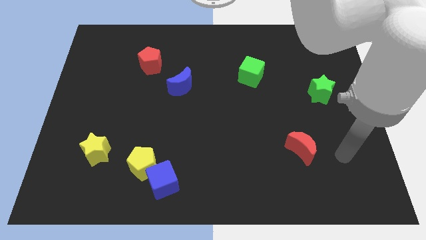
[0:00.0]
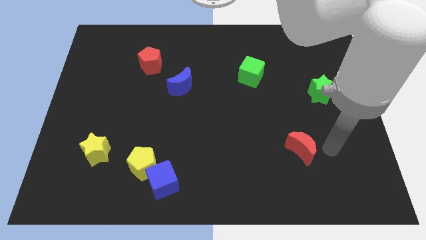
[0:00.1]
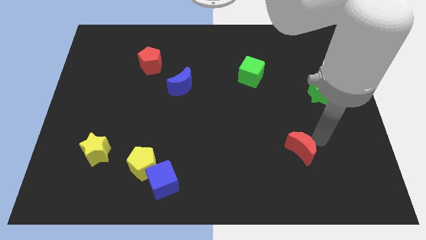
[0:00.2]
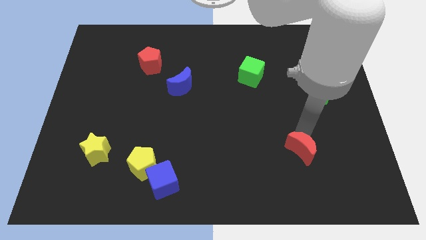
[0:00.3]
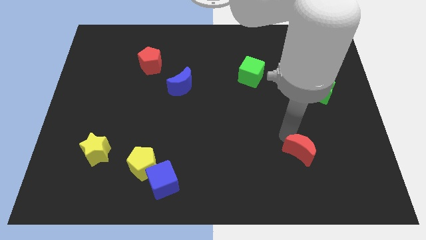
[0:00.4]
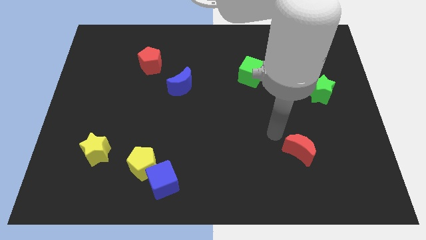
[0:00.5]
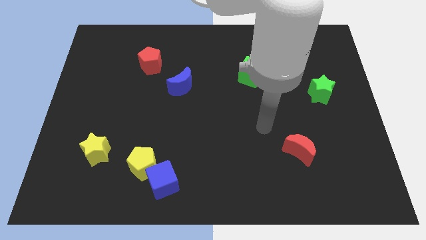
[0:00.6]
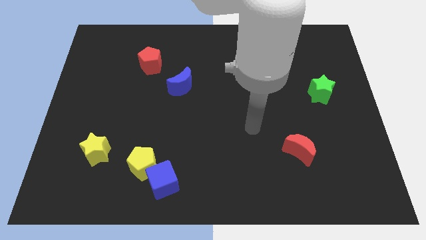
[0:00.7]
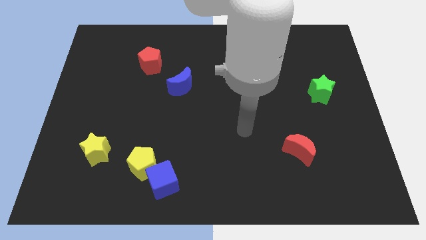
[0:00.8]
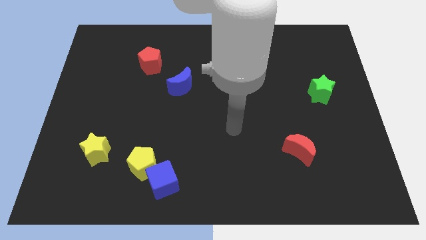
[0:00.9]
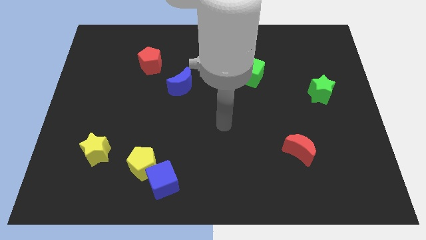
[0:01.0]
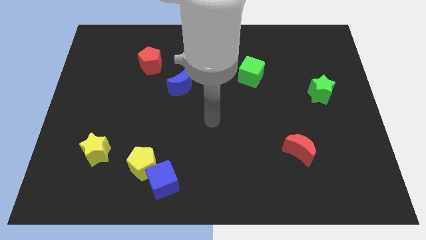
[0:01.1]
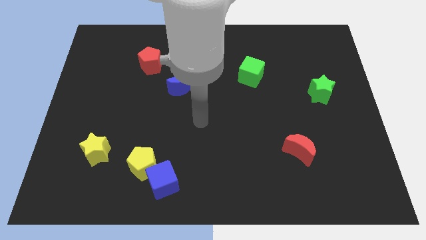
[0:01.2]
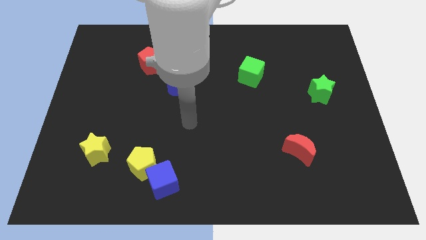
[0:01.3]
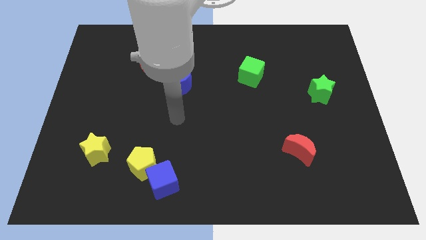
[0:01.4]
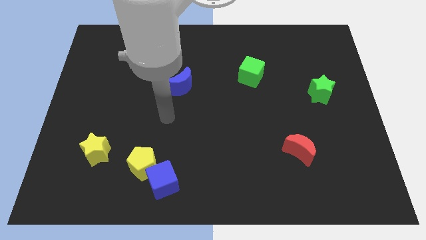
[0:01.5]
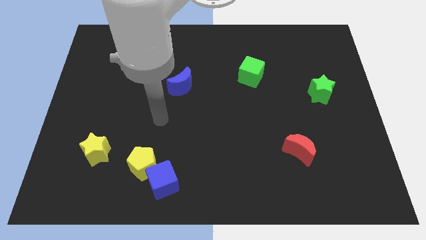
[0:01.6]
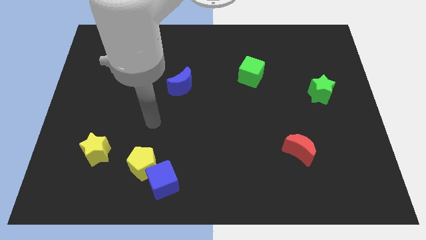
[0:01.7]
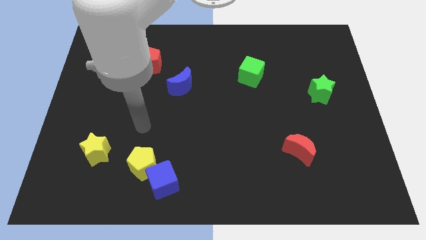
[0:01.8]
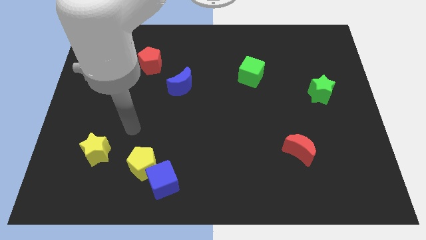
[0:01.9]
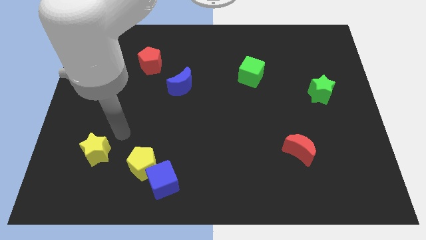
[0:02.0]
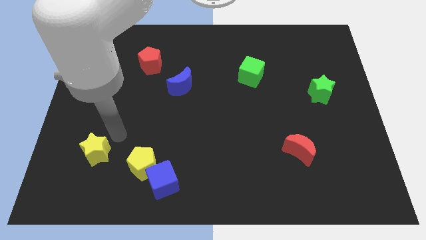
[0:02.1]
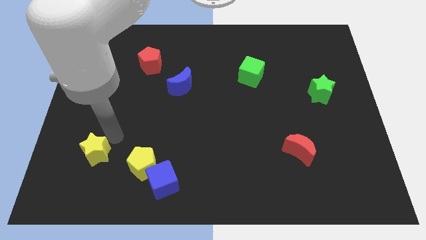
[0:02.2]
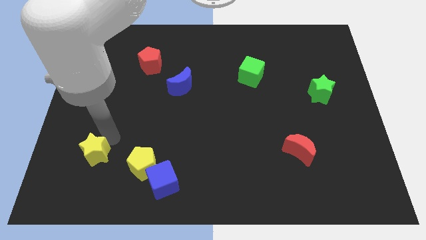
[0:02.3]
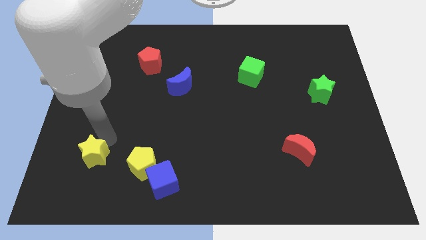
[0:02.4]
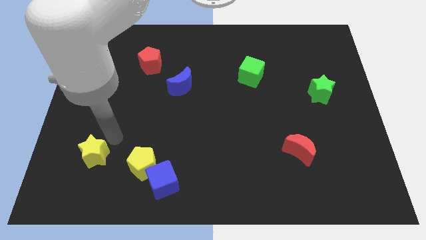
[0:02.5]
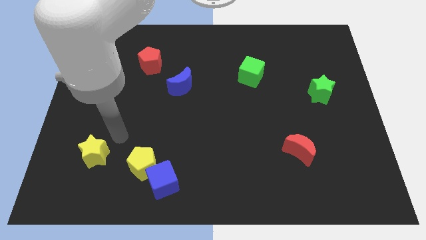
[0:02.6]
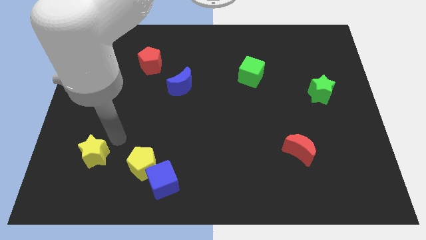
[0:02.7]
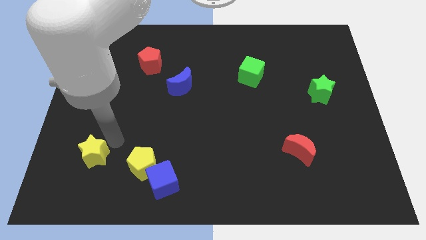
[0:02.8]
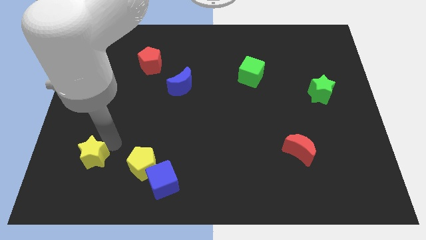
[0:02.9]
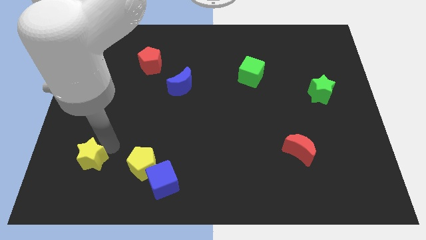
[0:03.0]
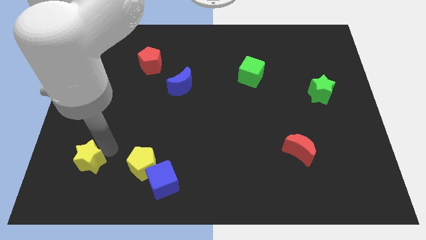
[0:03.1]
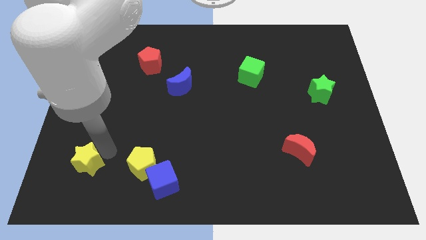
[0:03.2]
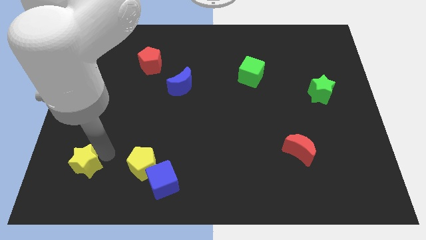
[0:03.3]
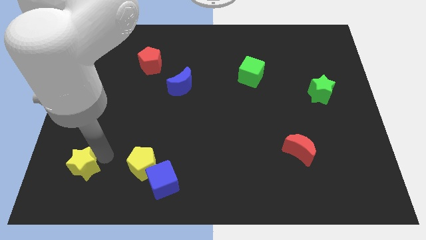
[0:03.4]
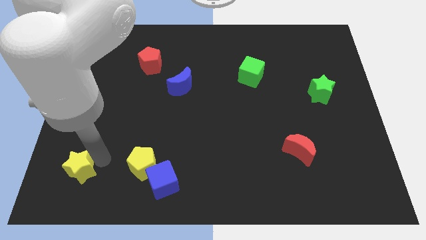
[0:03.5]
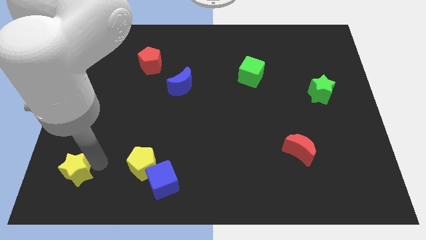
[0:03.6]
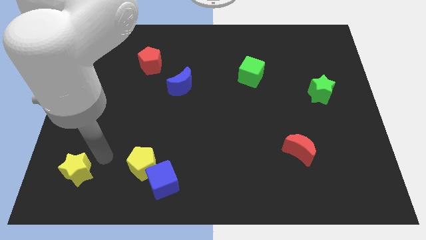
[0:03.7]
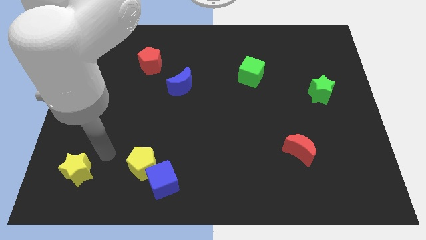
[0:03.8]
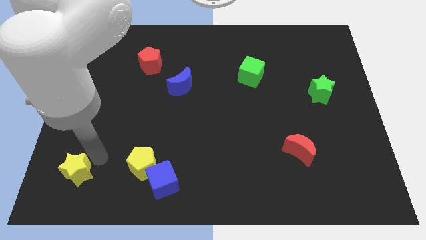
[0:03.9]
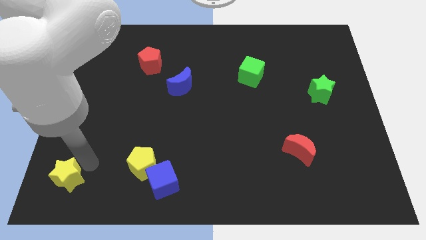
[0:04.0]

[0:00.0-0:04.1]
move the yellow star to the lower left corner

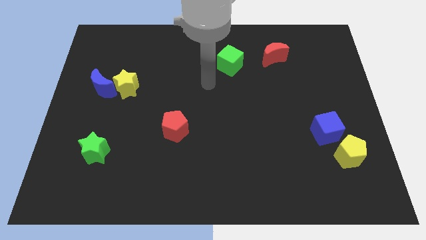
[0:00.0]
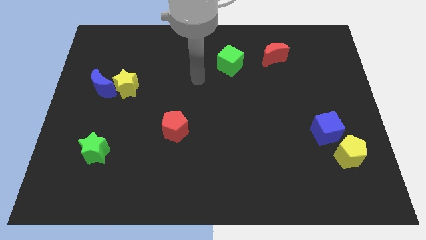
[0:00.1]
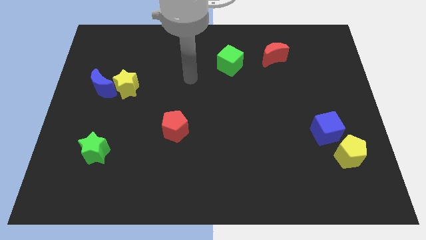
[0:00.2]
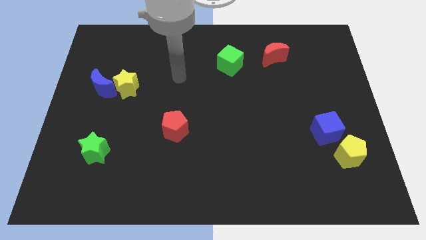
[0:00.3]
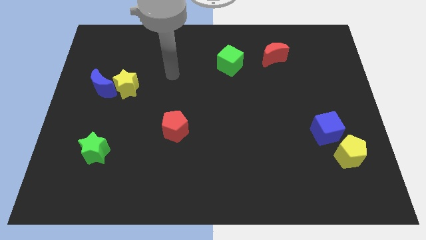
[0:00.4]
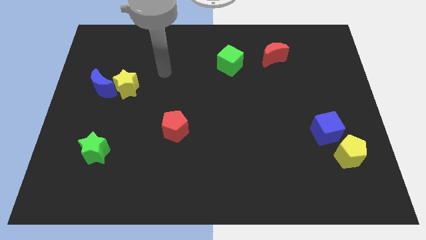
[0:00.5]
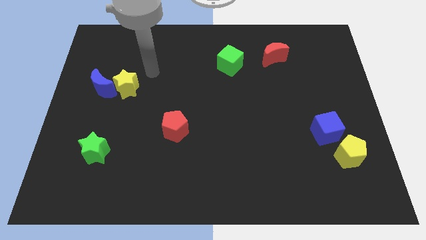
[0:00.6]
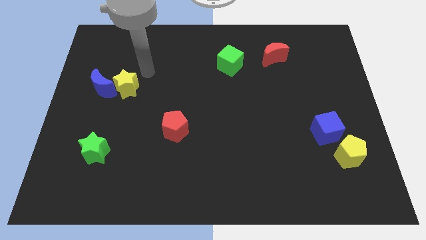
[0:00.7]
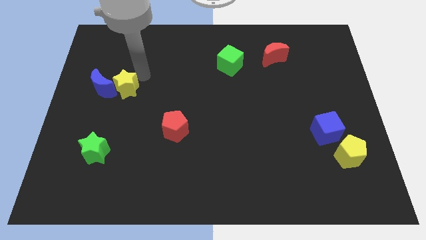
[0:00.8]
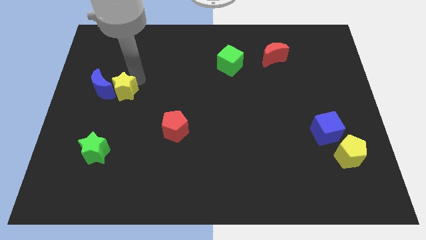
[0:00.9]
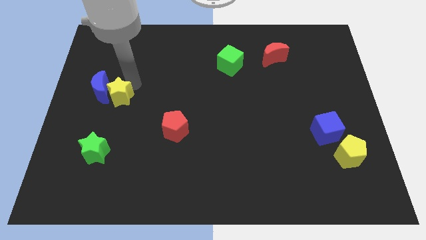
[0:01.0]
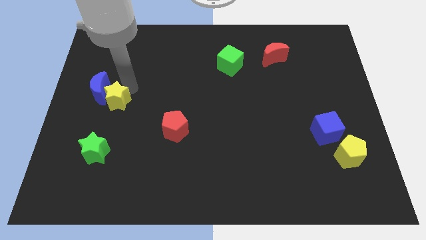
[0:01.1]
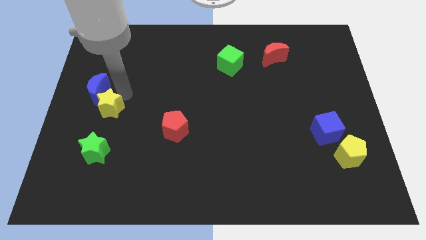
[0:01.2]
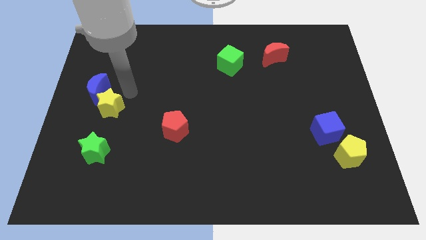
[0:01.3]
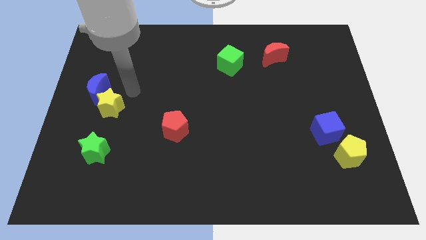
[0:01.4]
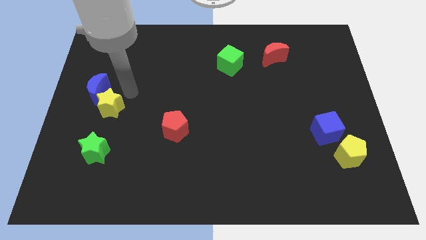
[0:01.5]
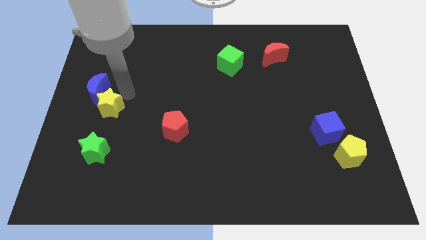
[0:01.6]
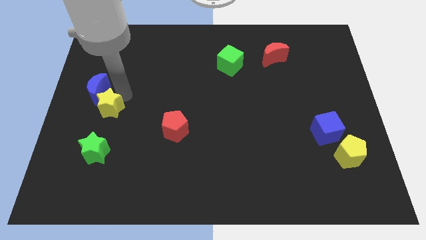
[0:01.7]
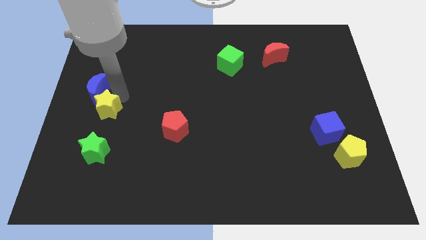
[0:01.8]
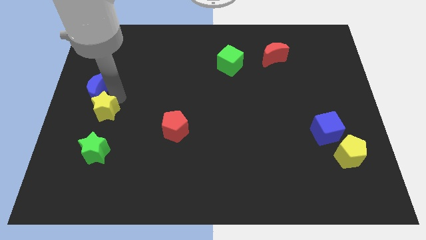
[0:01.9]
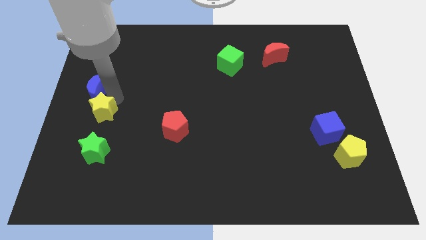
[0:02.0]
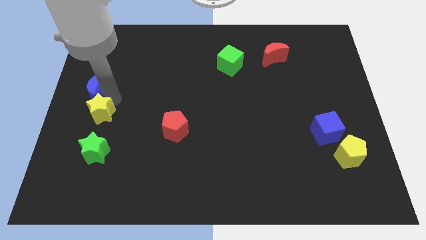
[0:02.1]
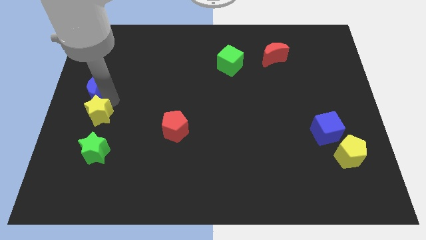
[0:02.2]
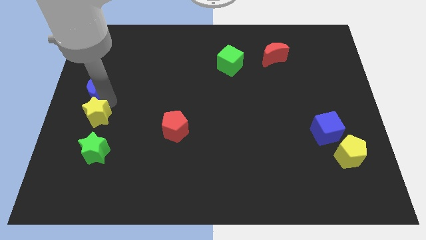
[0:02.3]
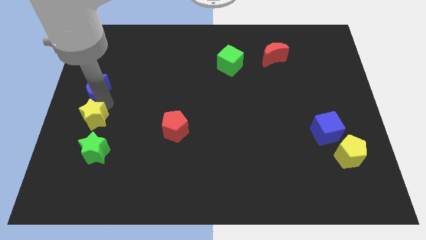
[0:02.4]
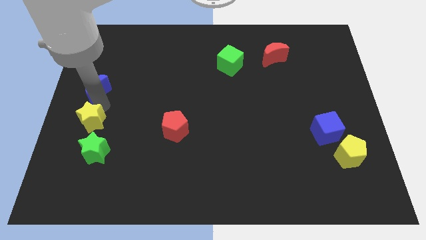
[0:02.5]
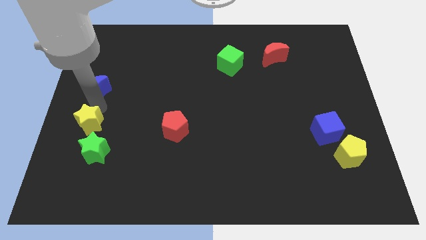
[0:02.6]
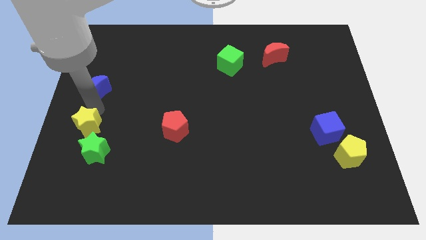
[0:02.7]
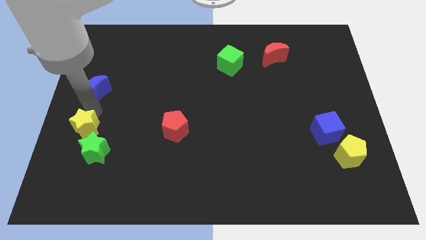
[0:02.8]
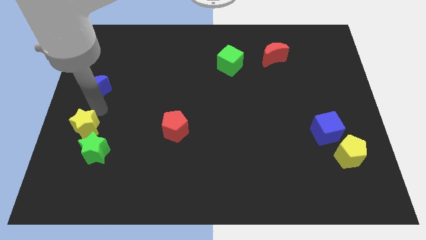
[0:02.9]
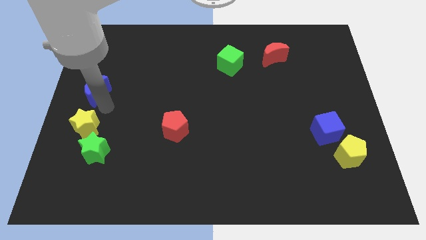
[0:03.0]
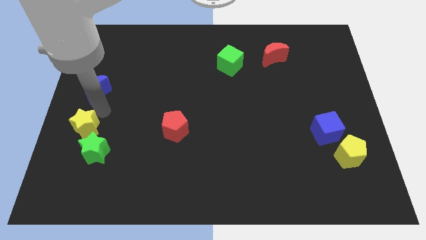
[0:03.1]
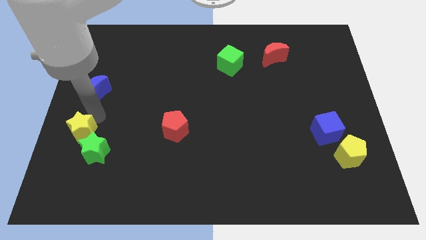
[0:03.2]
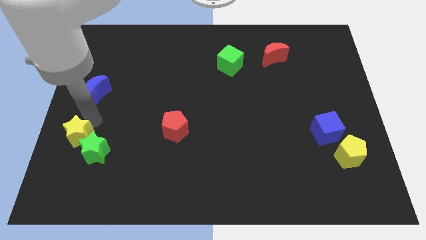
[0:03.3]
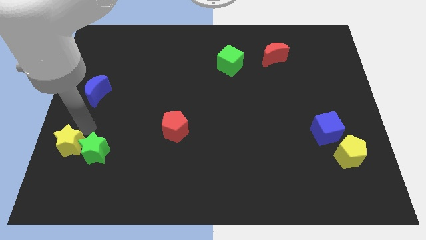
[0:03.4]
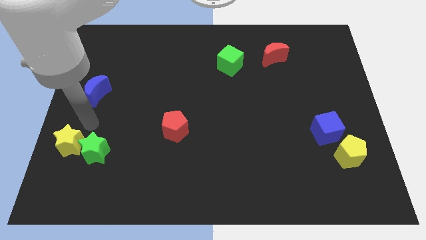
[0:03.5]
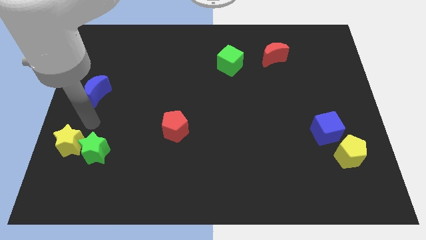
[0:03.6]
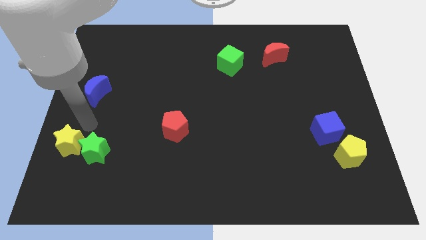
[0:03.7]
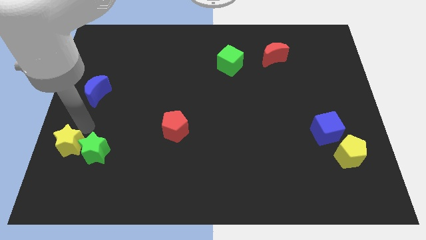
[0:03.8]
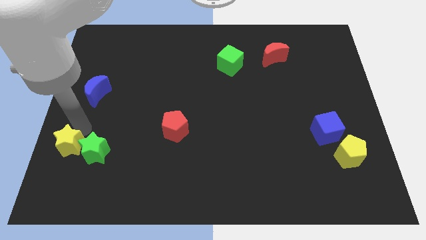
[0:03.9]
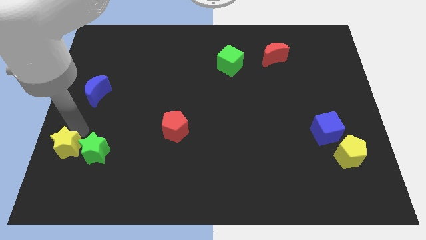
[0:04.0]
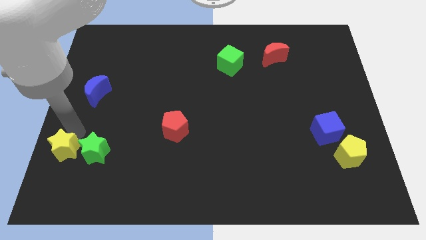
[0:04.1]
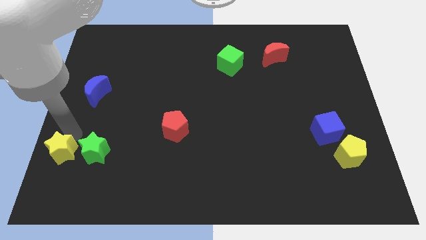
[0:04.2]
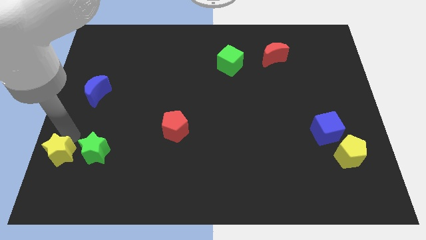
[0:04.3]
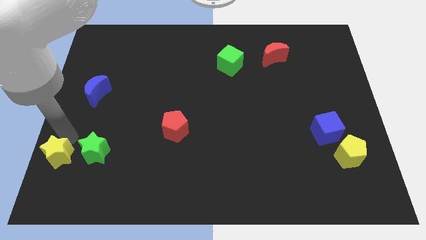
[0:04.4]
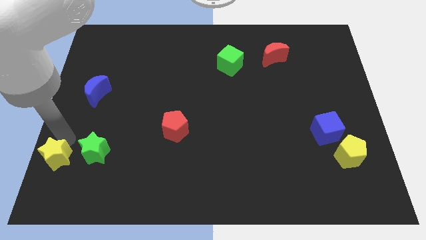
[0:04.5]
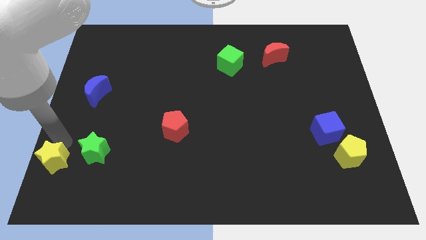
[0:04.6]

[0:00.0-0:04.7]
put the yellow star to the bottom left of the board
